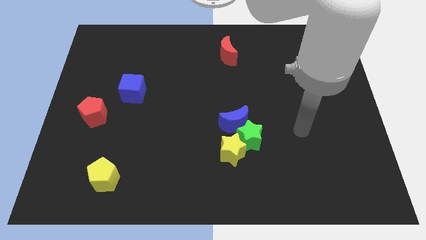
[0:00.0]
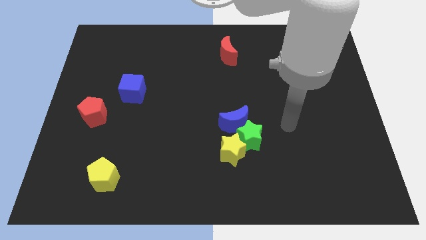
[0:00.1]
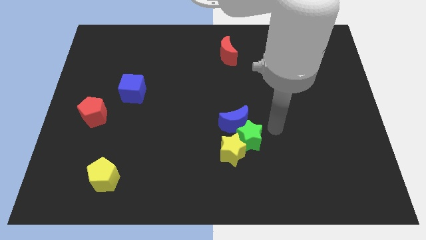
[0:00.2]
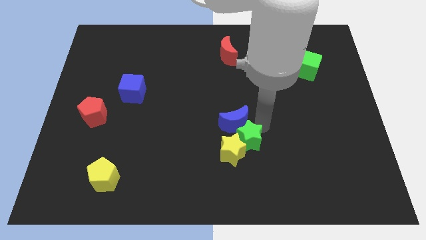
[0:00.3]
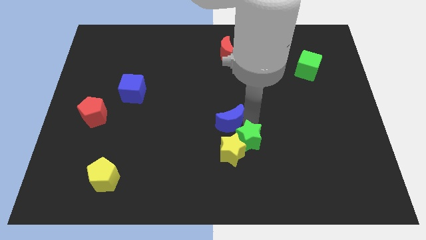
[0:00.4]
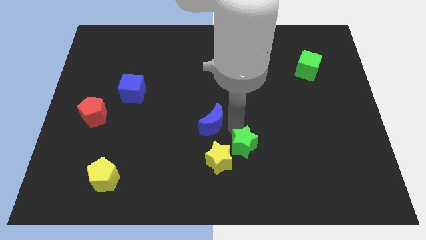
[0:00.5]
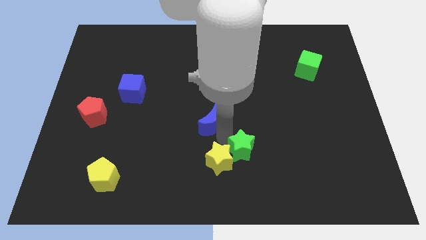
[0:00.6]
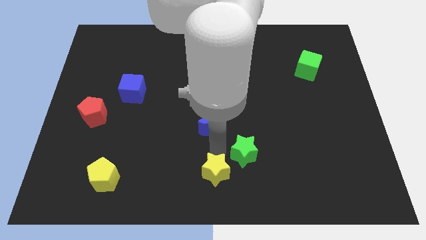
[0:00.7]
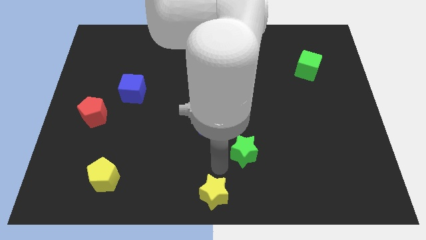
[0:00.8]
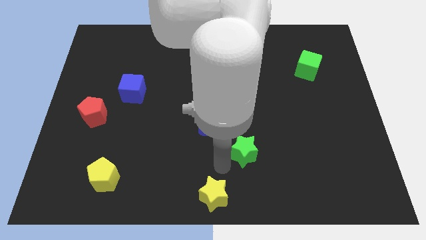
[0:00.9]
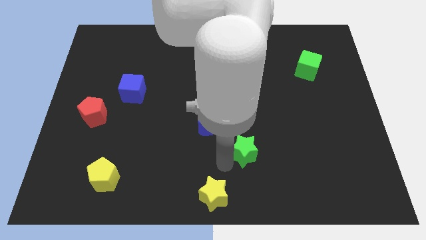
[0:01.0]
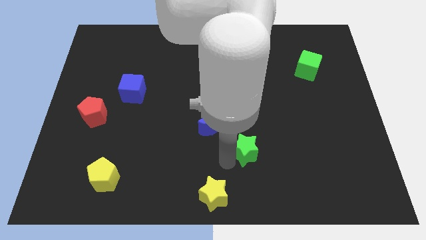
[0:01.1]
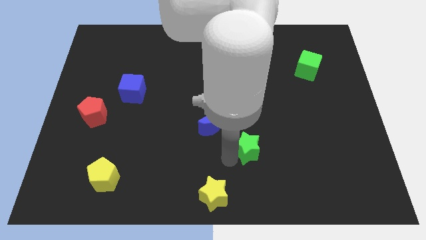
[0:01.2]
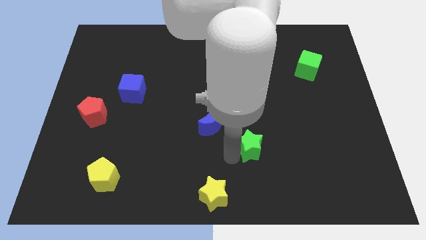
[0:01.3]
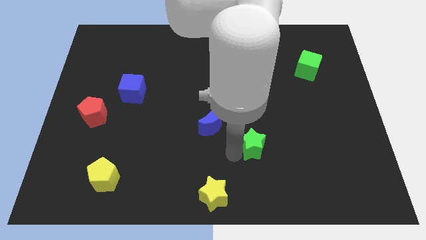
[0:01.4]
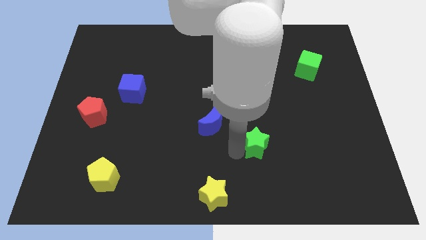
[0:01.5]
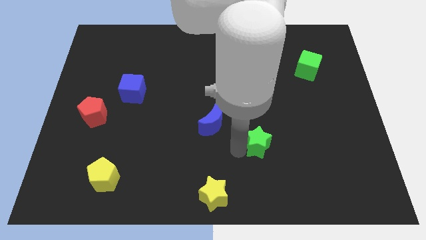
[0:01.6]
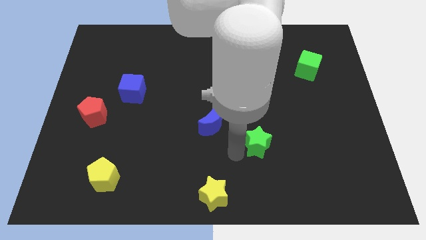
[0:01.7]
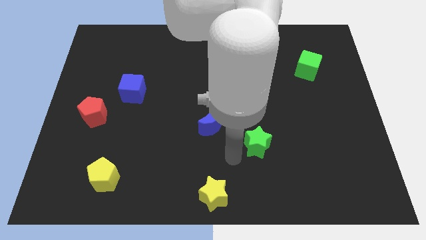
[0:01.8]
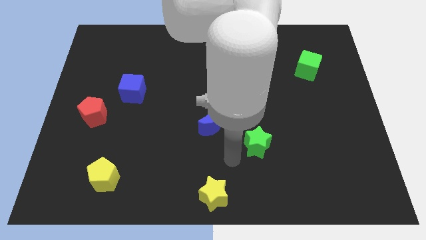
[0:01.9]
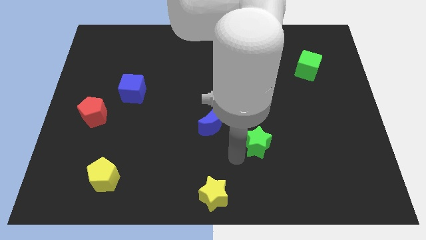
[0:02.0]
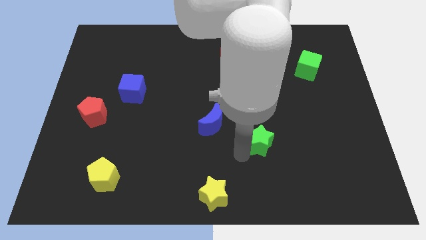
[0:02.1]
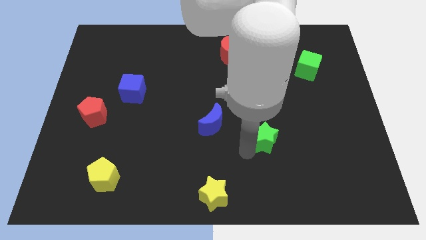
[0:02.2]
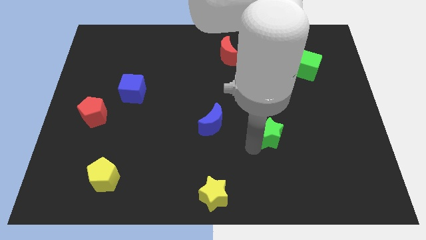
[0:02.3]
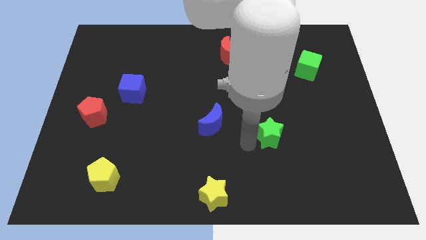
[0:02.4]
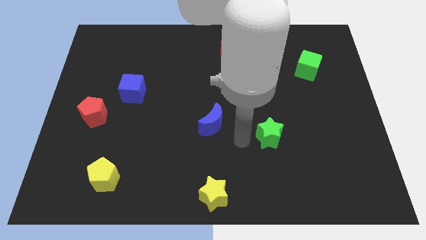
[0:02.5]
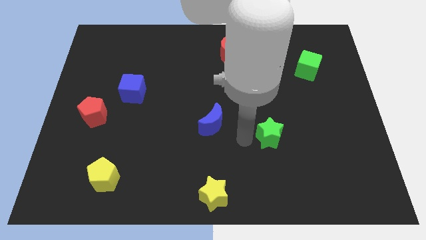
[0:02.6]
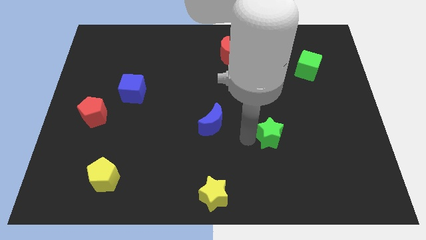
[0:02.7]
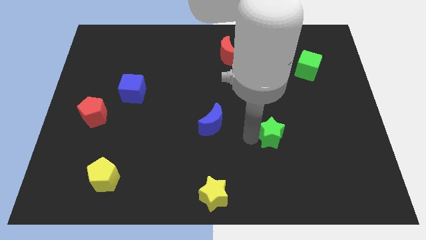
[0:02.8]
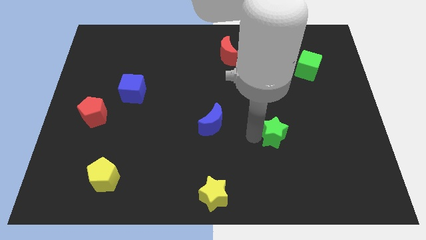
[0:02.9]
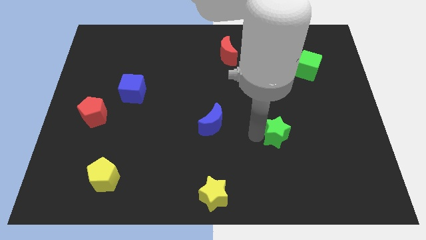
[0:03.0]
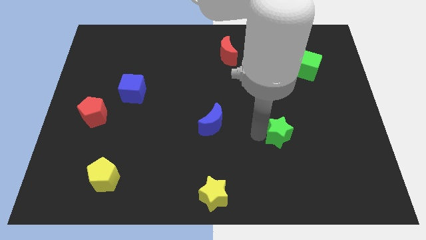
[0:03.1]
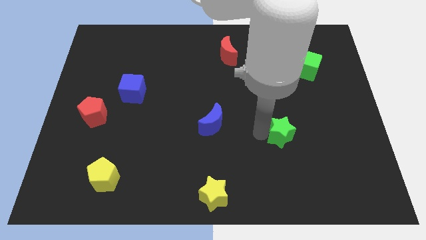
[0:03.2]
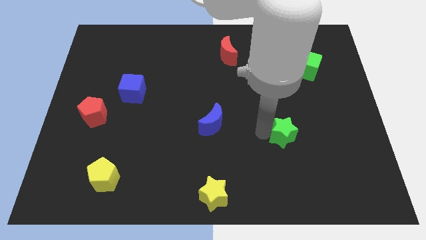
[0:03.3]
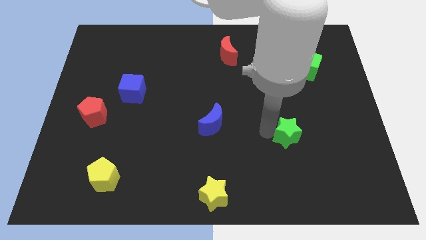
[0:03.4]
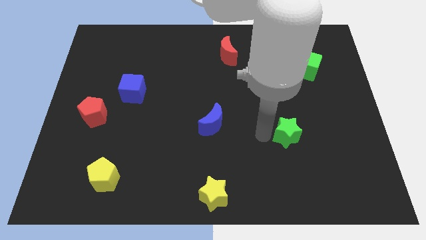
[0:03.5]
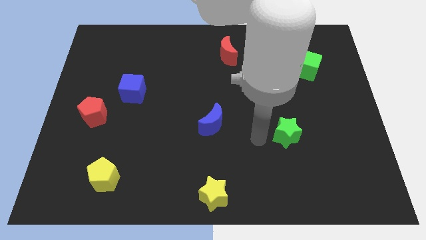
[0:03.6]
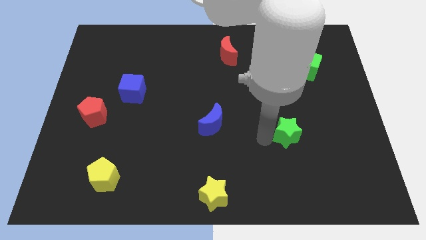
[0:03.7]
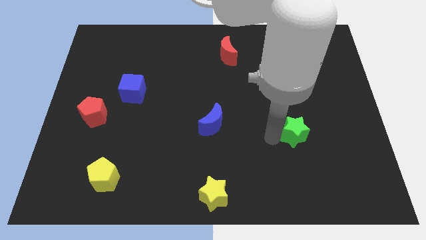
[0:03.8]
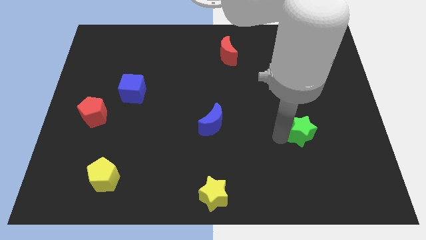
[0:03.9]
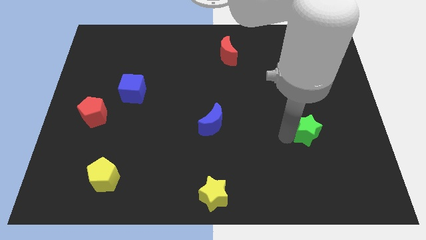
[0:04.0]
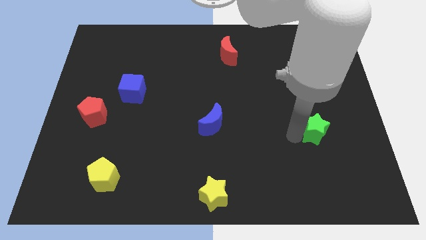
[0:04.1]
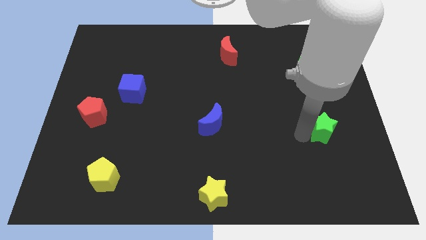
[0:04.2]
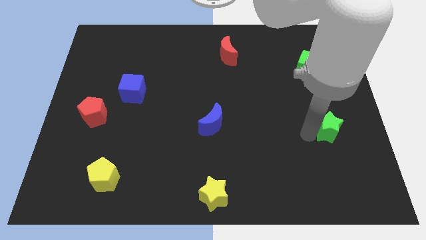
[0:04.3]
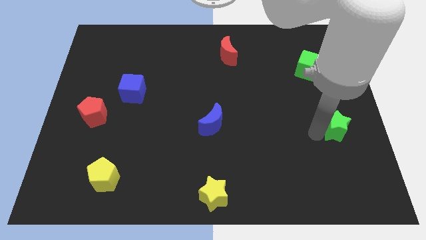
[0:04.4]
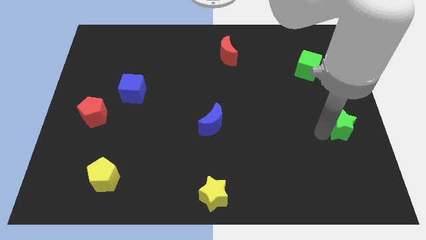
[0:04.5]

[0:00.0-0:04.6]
move the green star to the right side

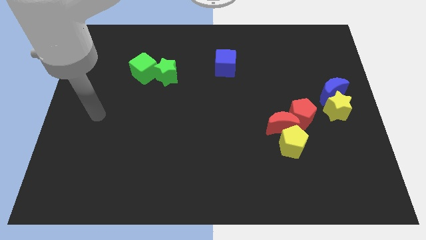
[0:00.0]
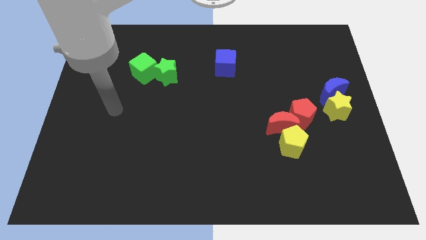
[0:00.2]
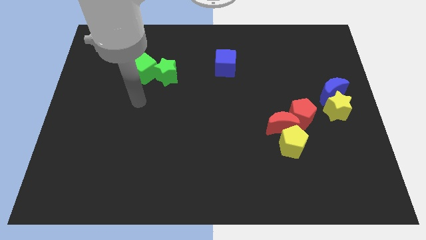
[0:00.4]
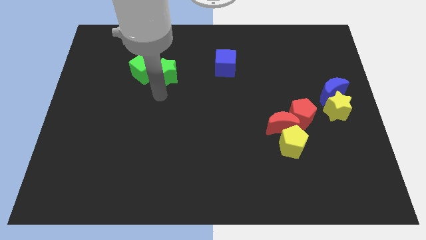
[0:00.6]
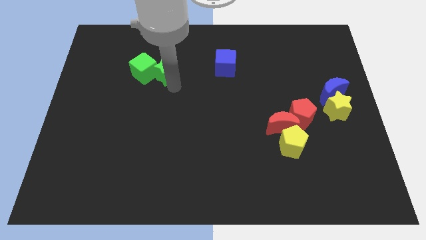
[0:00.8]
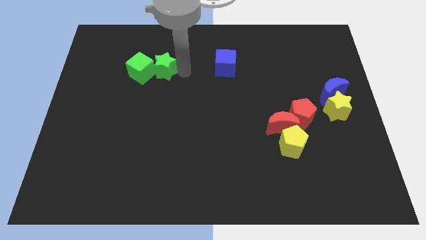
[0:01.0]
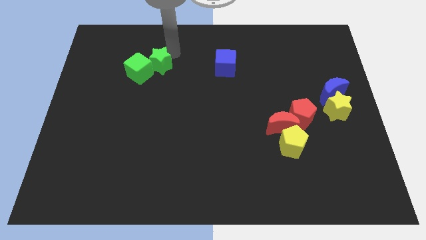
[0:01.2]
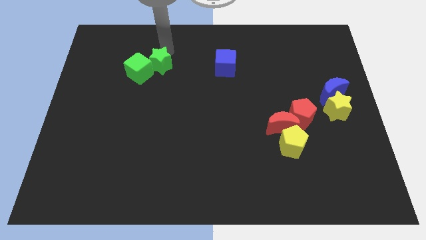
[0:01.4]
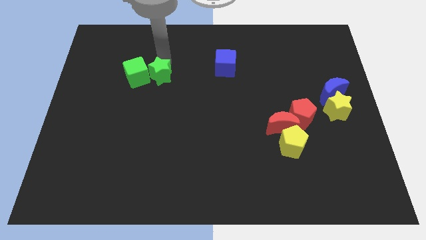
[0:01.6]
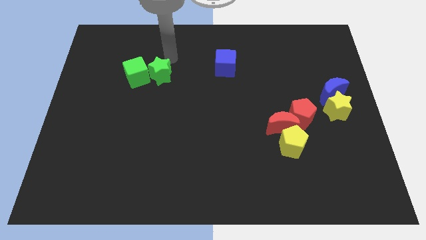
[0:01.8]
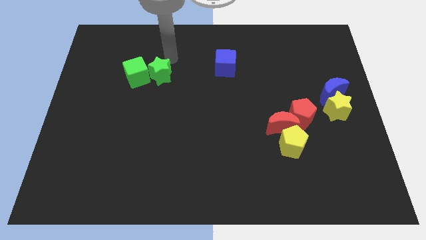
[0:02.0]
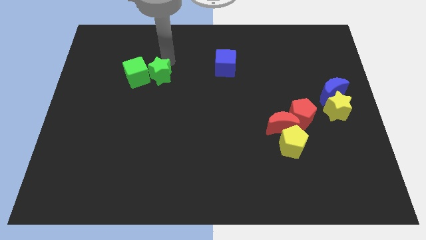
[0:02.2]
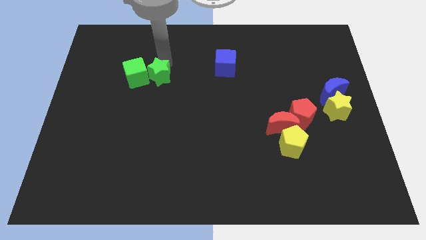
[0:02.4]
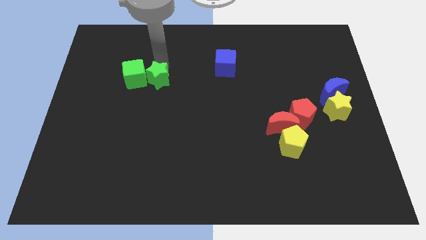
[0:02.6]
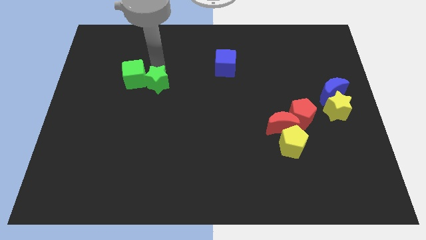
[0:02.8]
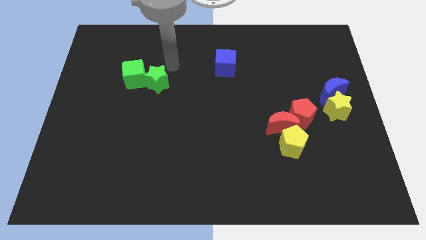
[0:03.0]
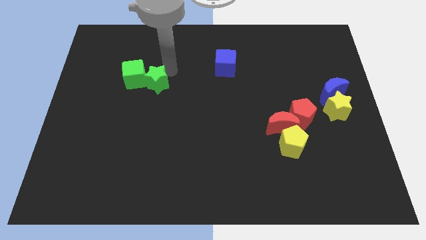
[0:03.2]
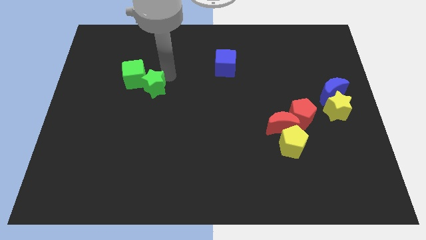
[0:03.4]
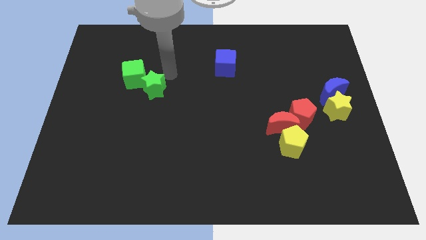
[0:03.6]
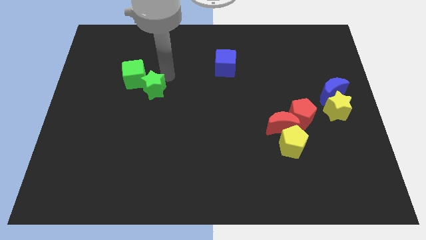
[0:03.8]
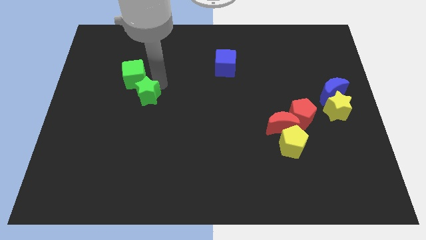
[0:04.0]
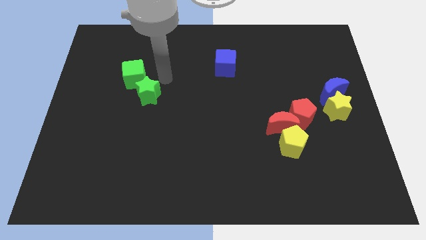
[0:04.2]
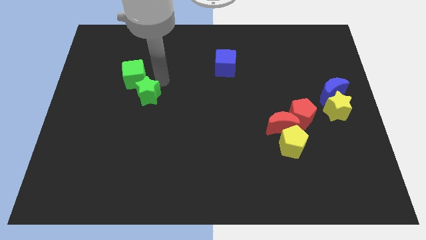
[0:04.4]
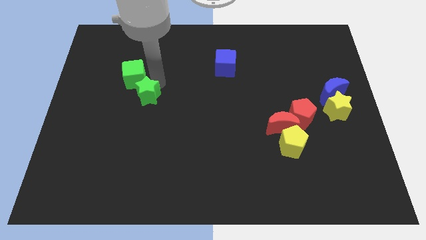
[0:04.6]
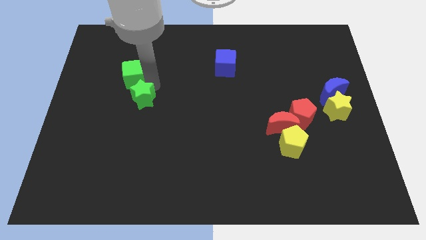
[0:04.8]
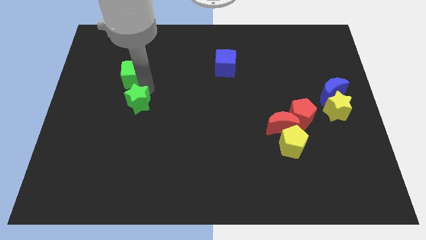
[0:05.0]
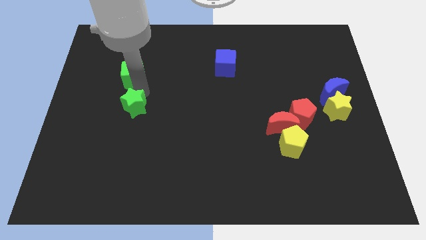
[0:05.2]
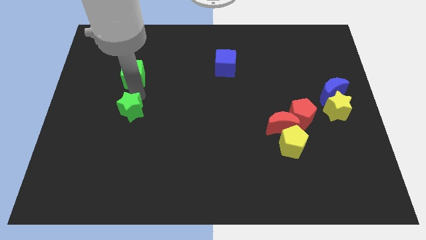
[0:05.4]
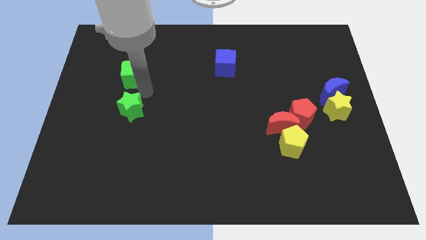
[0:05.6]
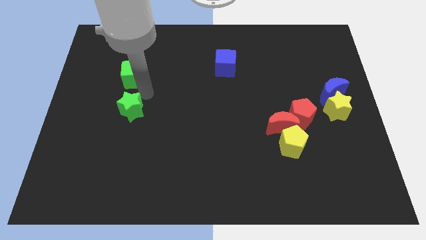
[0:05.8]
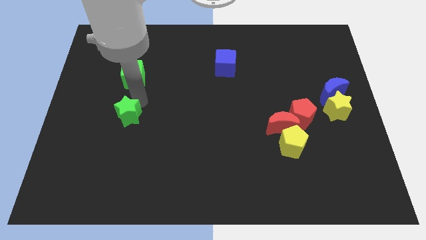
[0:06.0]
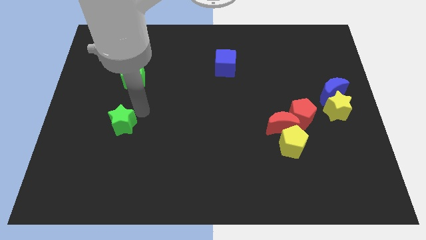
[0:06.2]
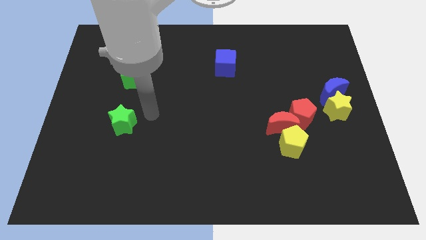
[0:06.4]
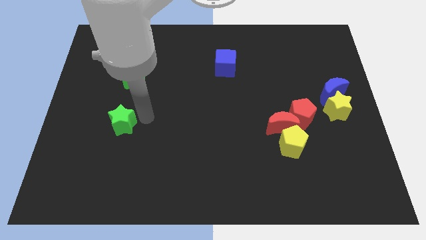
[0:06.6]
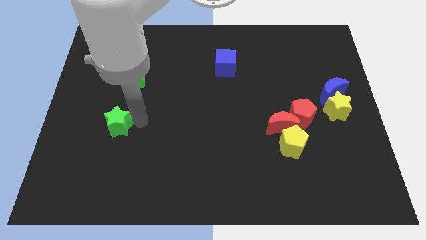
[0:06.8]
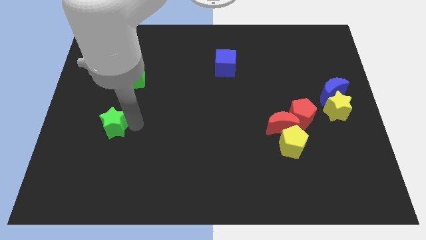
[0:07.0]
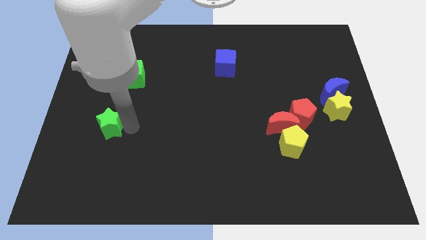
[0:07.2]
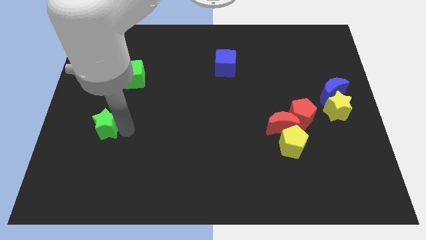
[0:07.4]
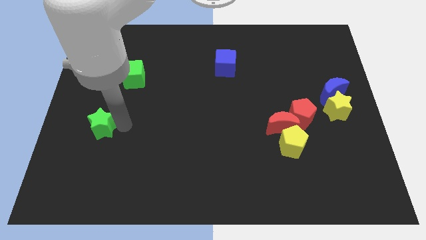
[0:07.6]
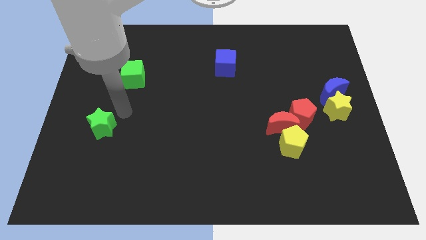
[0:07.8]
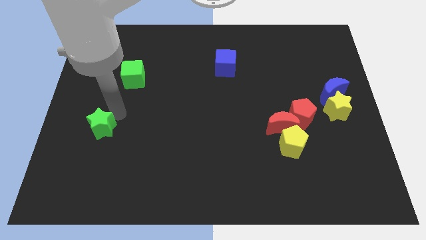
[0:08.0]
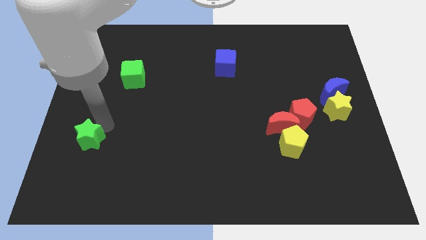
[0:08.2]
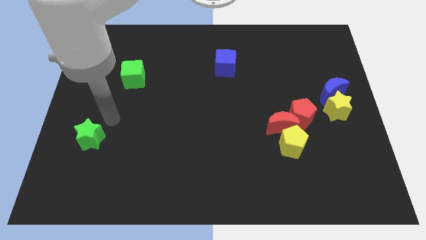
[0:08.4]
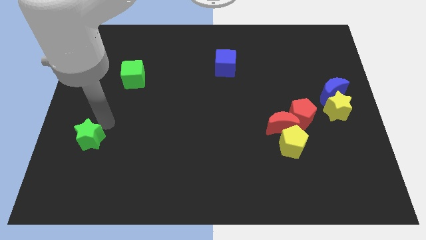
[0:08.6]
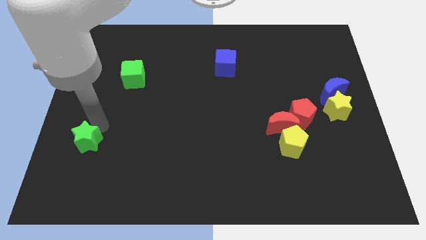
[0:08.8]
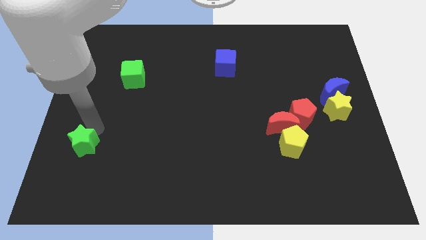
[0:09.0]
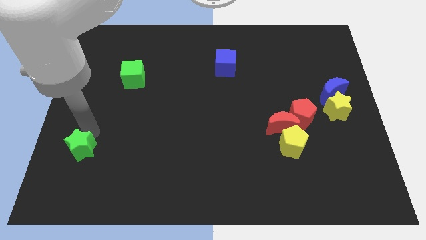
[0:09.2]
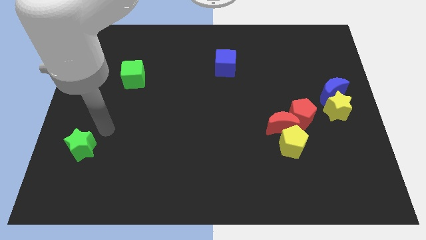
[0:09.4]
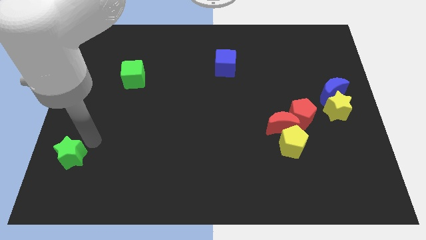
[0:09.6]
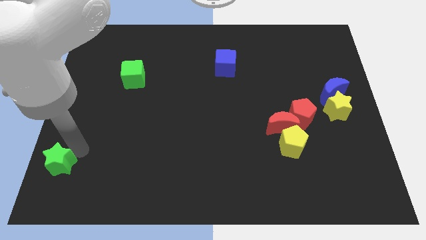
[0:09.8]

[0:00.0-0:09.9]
move the green star to the bottom left
